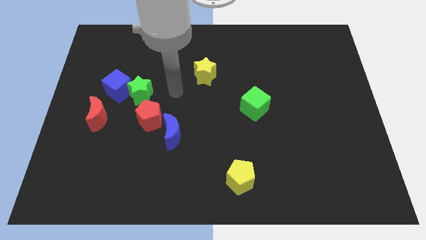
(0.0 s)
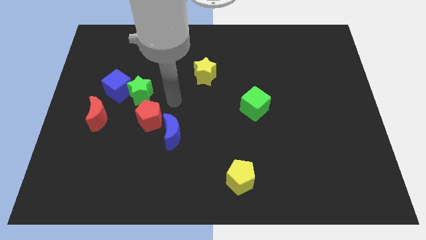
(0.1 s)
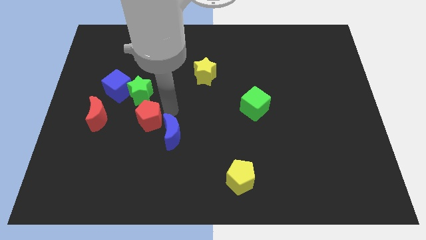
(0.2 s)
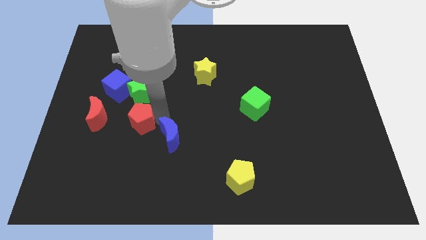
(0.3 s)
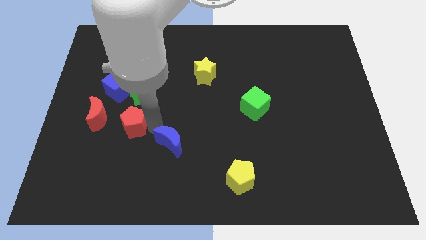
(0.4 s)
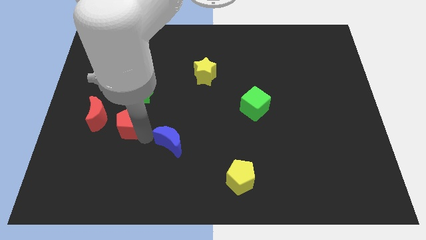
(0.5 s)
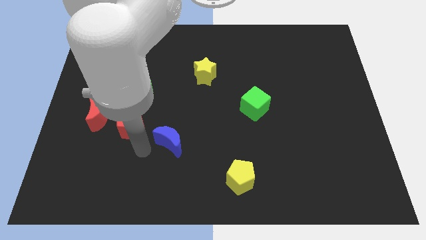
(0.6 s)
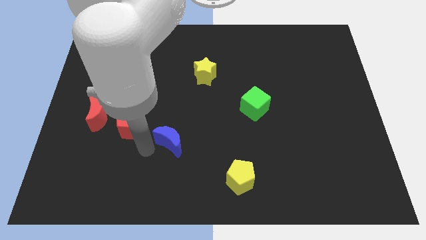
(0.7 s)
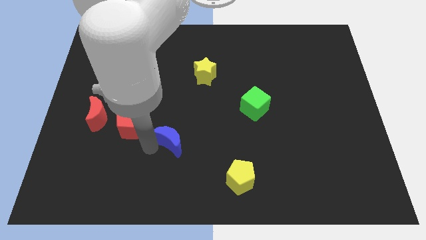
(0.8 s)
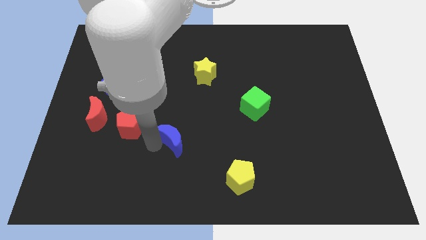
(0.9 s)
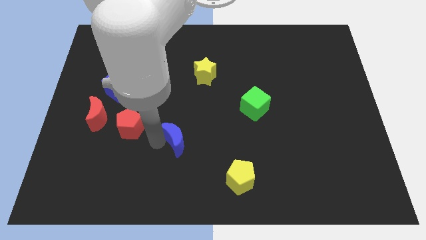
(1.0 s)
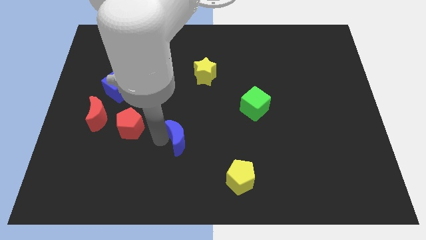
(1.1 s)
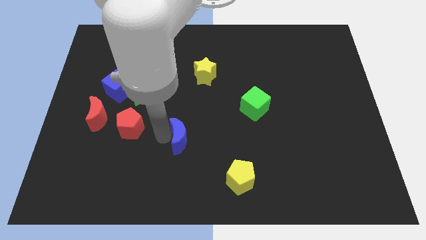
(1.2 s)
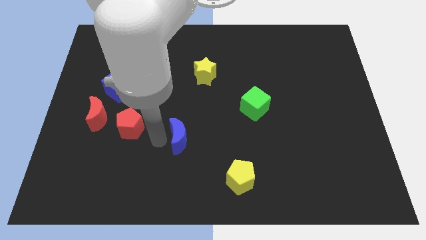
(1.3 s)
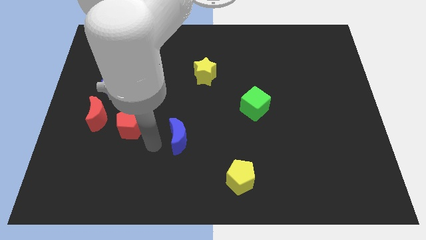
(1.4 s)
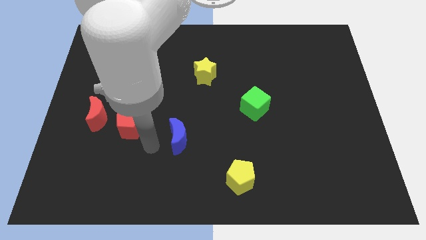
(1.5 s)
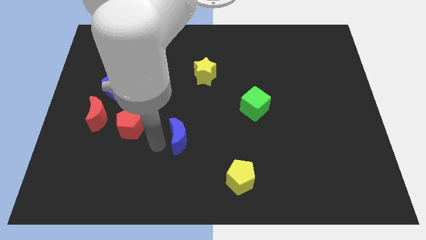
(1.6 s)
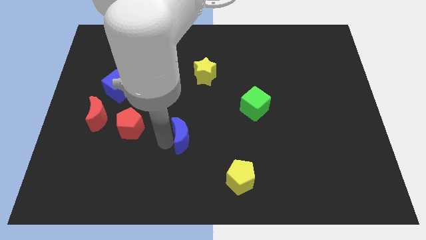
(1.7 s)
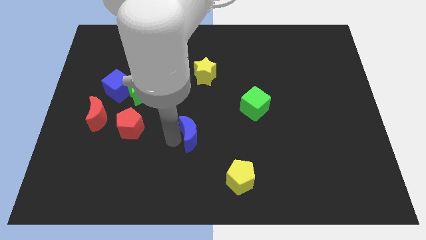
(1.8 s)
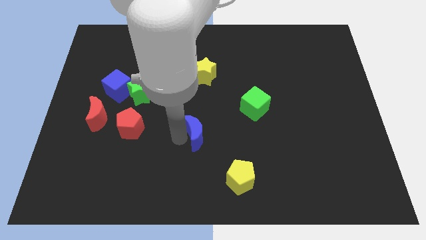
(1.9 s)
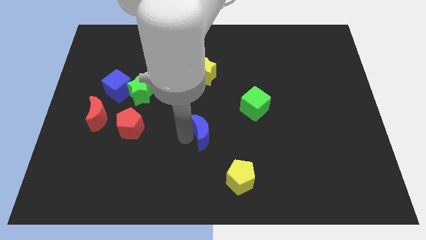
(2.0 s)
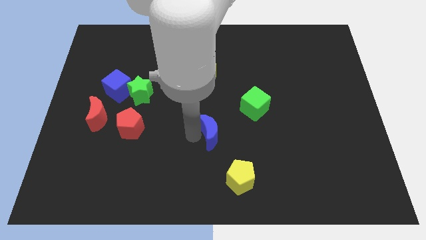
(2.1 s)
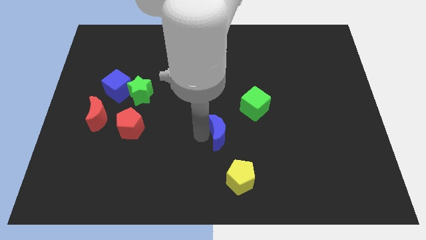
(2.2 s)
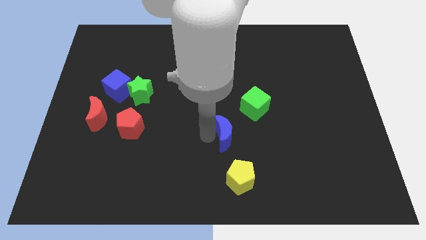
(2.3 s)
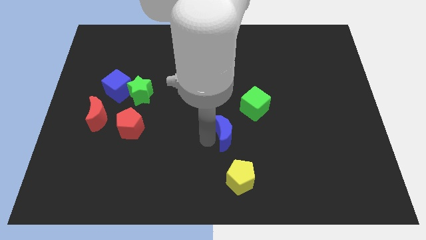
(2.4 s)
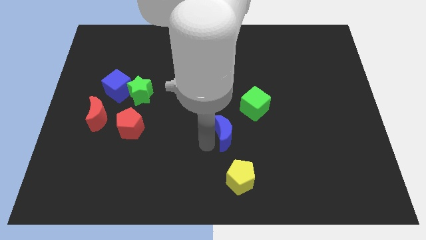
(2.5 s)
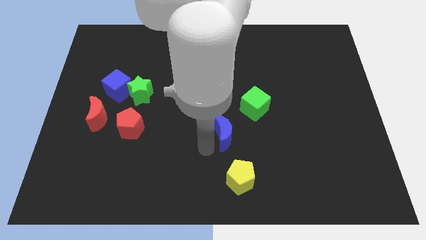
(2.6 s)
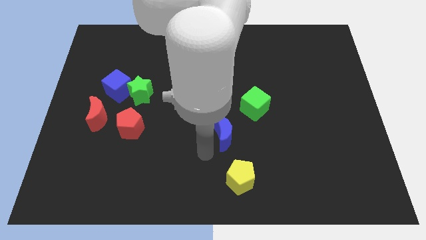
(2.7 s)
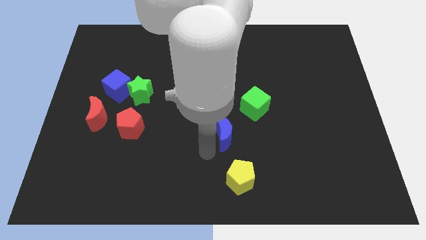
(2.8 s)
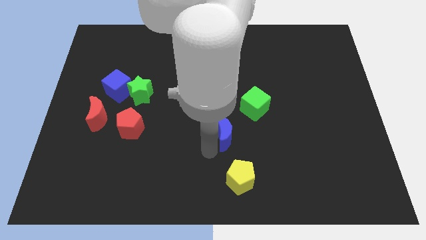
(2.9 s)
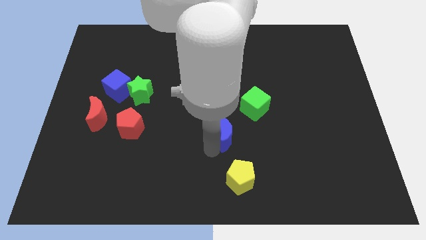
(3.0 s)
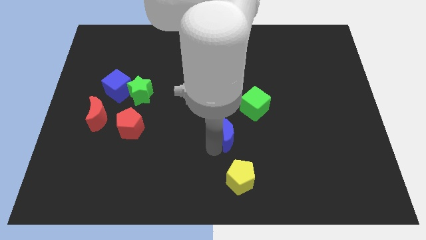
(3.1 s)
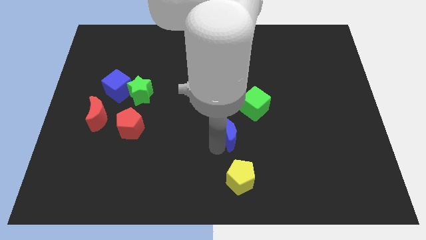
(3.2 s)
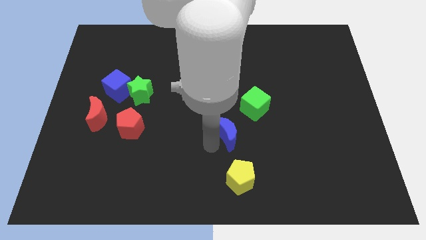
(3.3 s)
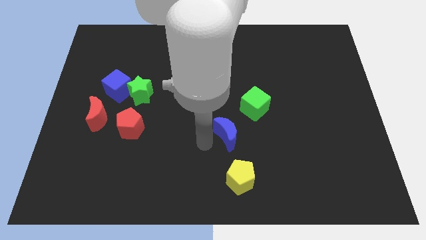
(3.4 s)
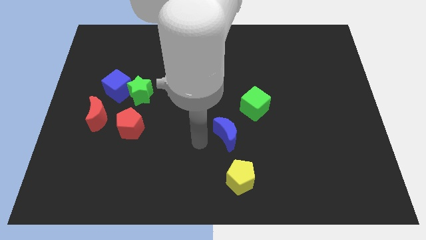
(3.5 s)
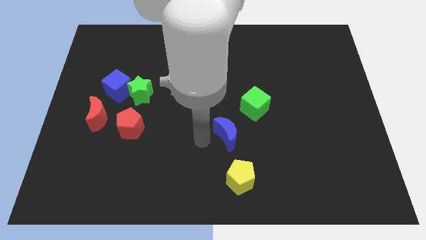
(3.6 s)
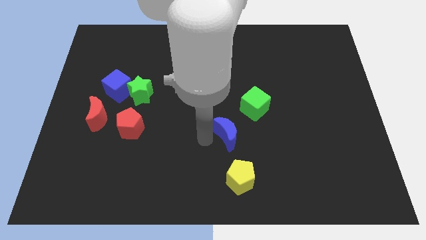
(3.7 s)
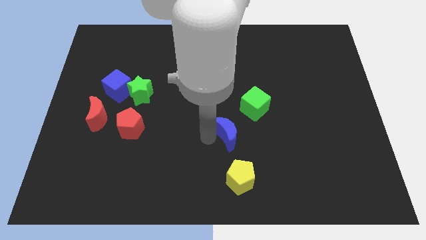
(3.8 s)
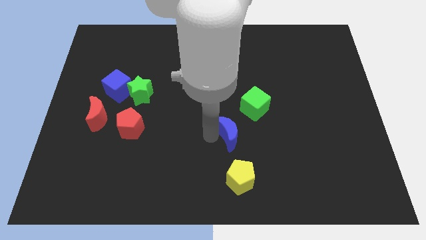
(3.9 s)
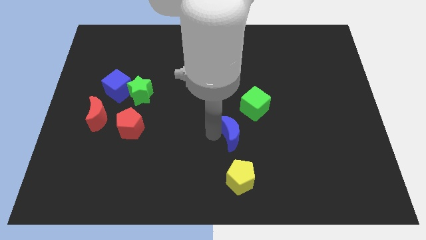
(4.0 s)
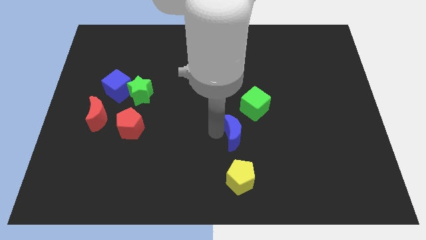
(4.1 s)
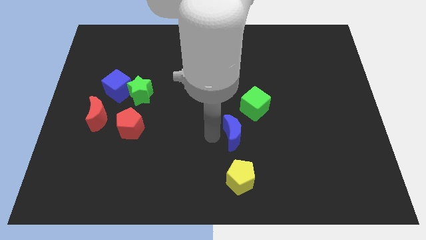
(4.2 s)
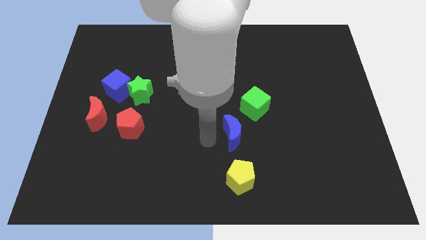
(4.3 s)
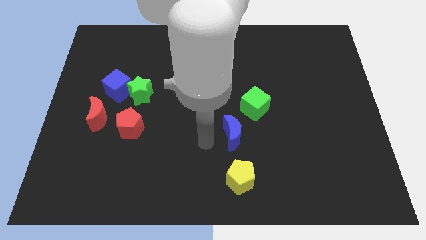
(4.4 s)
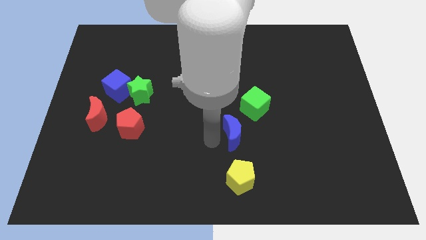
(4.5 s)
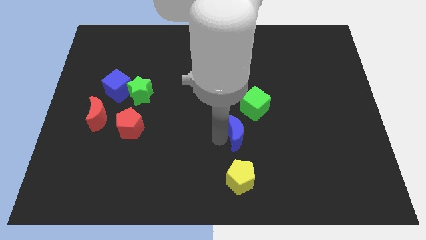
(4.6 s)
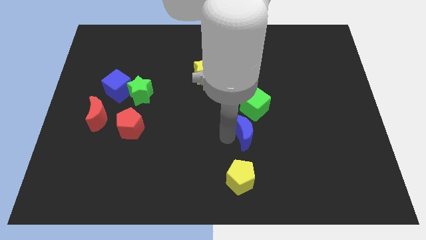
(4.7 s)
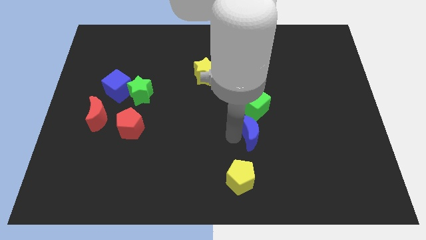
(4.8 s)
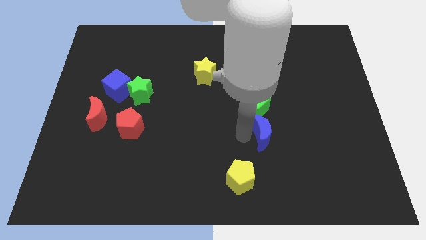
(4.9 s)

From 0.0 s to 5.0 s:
slide the blue moon right

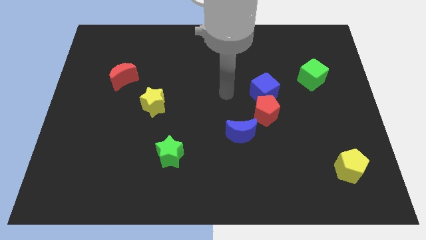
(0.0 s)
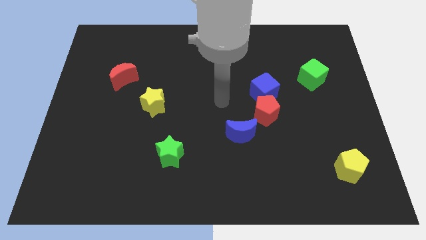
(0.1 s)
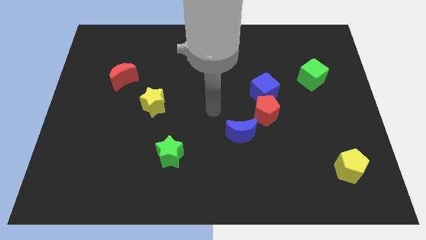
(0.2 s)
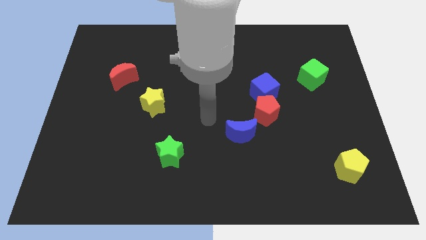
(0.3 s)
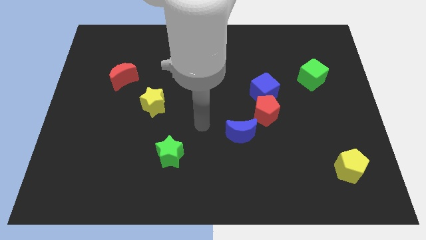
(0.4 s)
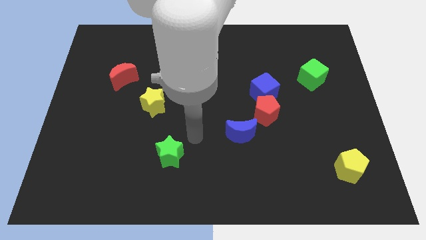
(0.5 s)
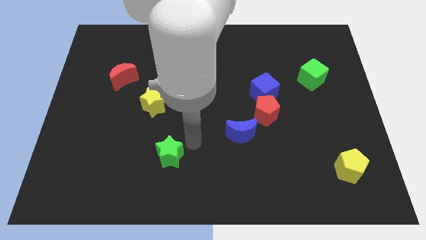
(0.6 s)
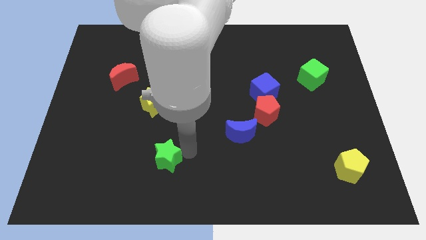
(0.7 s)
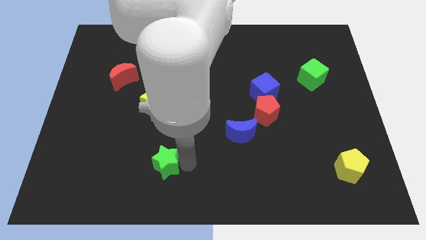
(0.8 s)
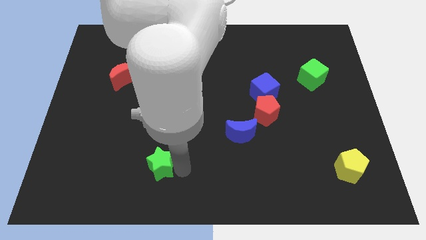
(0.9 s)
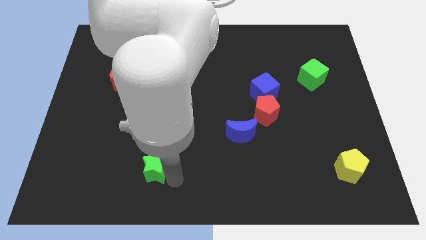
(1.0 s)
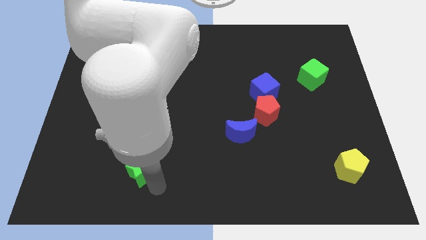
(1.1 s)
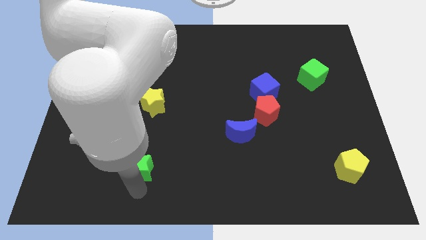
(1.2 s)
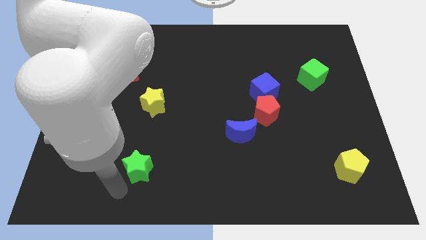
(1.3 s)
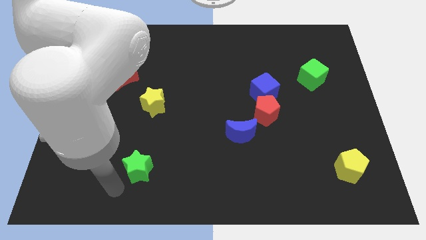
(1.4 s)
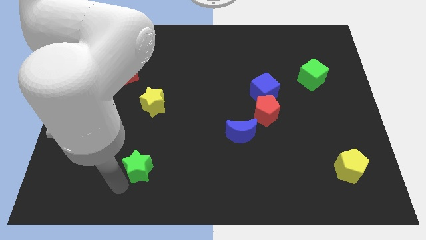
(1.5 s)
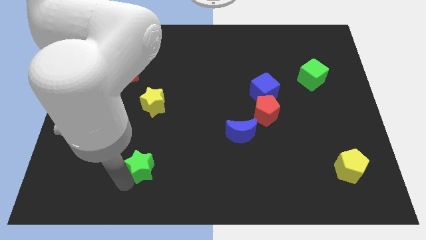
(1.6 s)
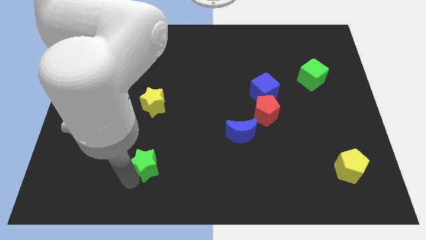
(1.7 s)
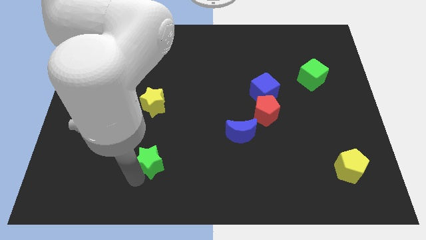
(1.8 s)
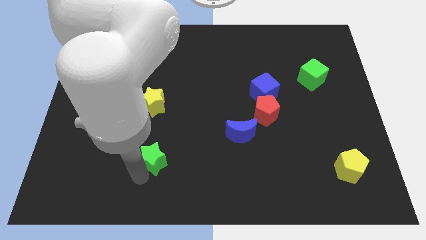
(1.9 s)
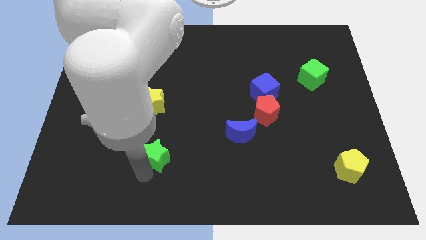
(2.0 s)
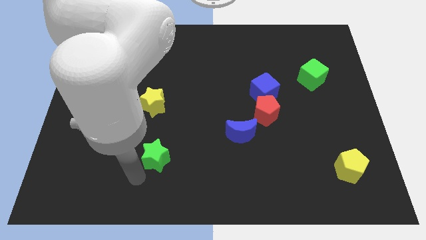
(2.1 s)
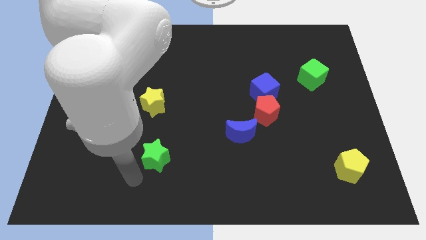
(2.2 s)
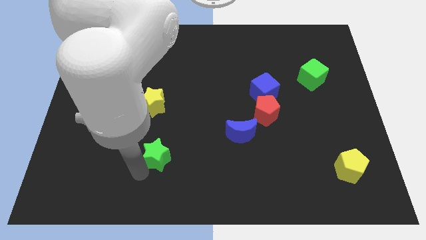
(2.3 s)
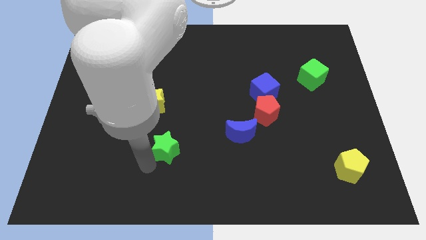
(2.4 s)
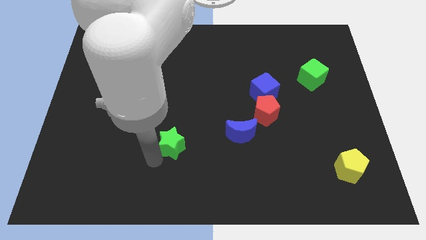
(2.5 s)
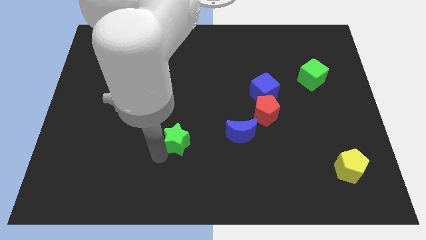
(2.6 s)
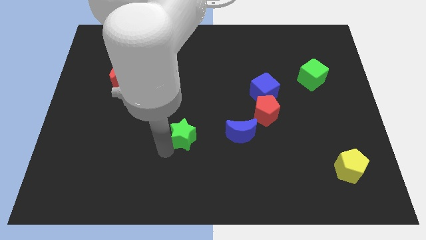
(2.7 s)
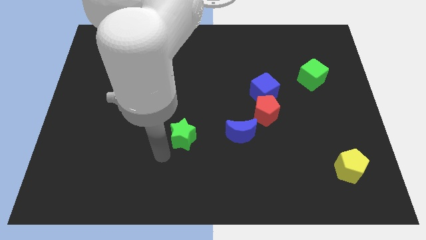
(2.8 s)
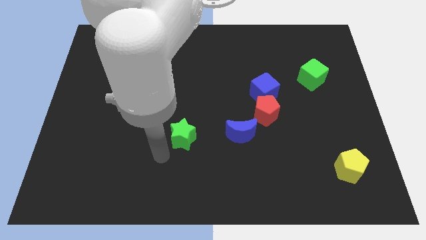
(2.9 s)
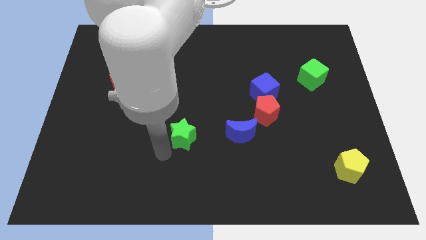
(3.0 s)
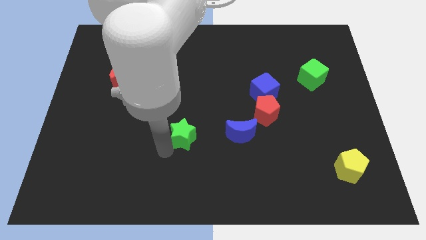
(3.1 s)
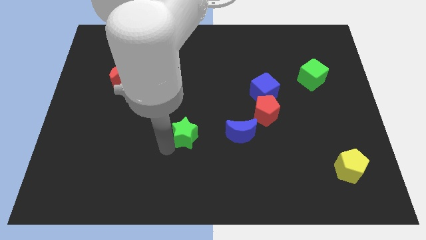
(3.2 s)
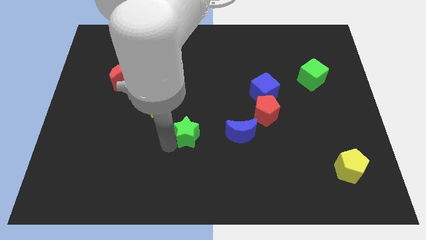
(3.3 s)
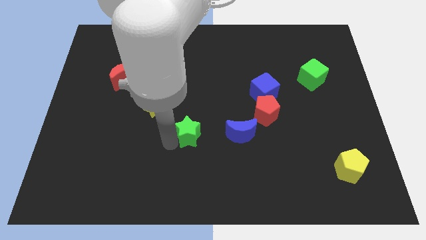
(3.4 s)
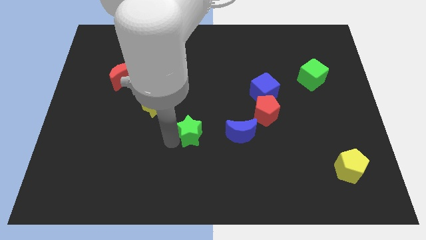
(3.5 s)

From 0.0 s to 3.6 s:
push the green star slightly upwards and then right
